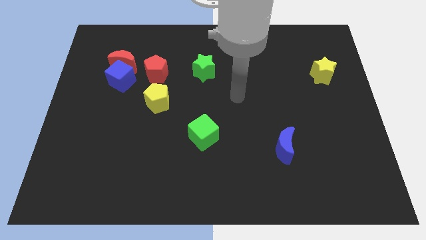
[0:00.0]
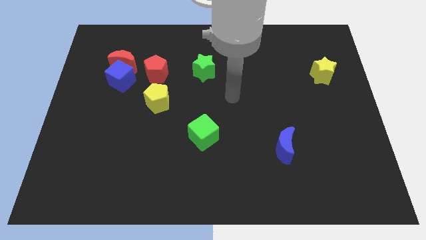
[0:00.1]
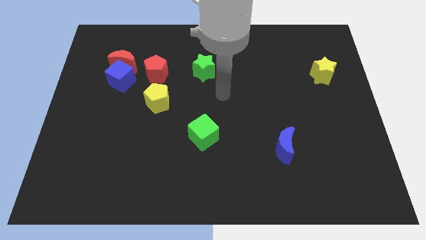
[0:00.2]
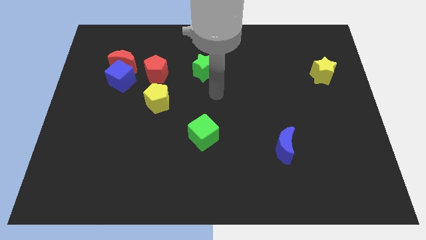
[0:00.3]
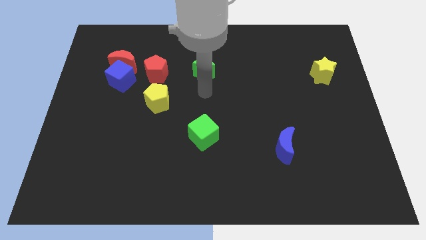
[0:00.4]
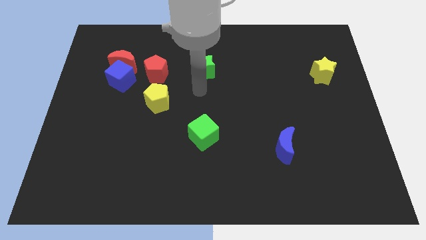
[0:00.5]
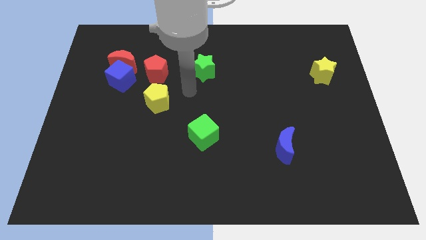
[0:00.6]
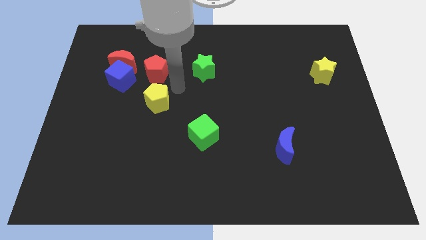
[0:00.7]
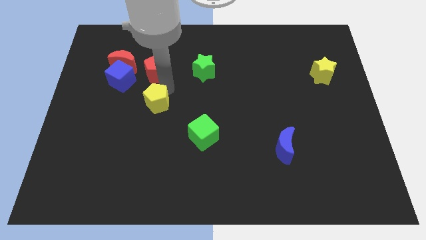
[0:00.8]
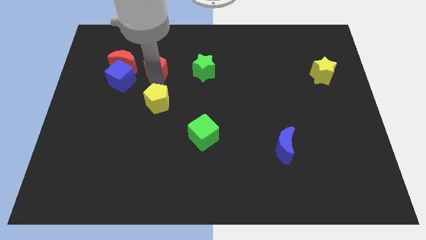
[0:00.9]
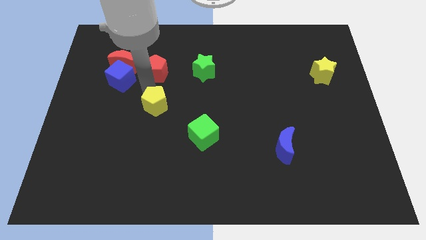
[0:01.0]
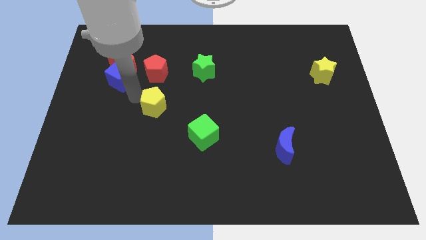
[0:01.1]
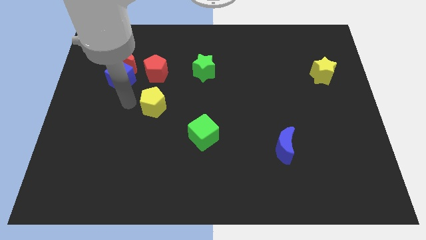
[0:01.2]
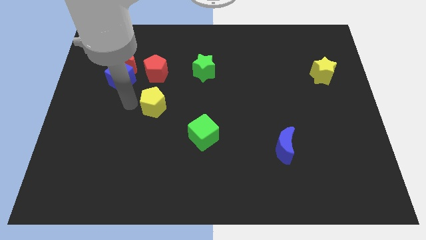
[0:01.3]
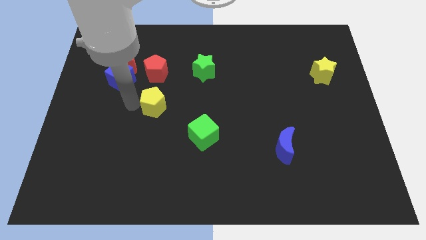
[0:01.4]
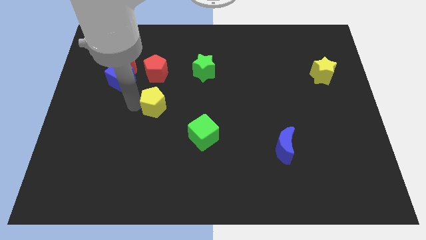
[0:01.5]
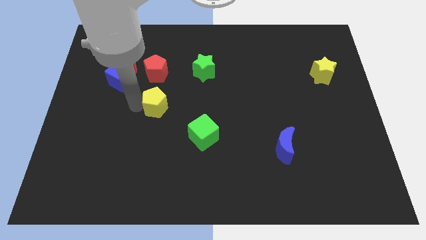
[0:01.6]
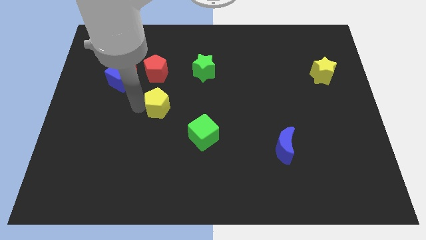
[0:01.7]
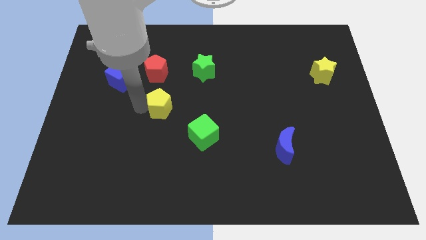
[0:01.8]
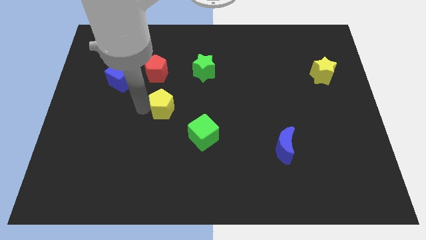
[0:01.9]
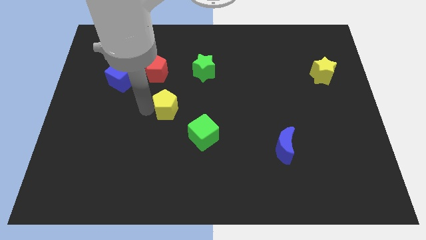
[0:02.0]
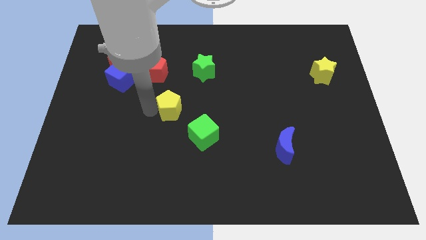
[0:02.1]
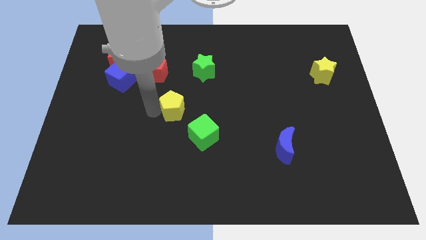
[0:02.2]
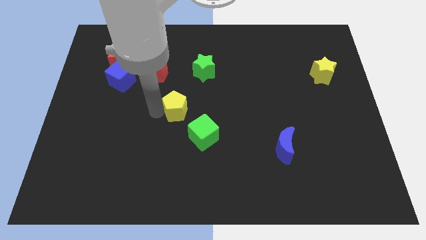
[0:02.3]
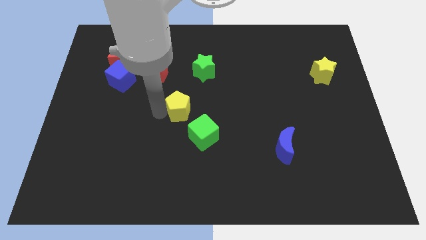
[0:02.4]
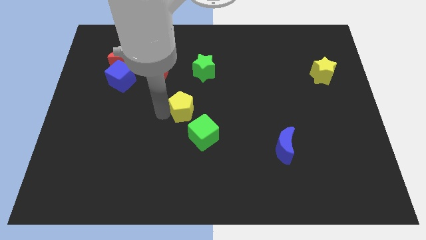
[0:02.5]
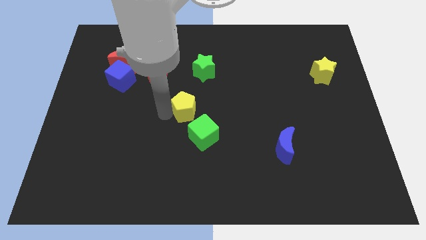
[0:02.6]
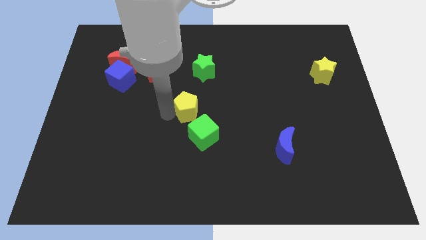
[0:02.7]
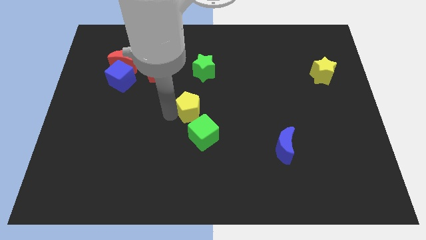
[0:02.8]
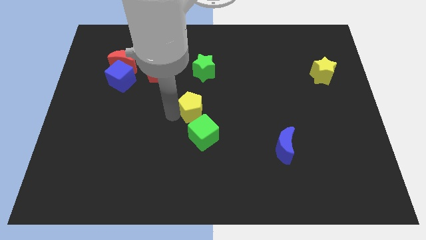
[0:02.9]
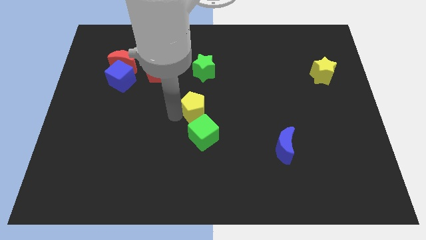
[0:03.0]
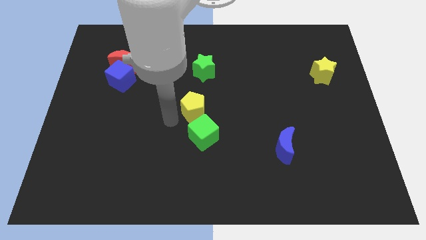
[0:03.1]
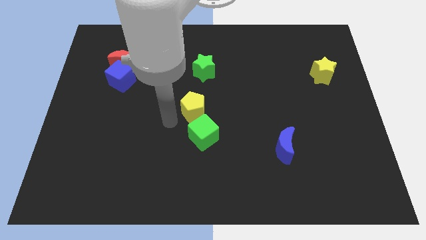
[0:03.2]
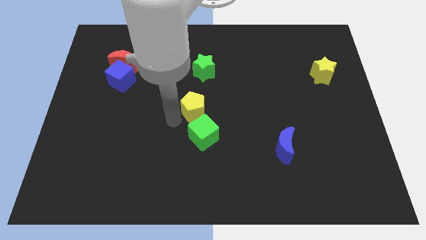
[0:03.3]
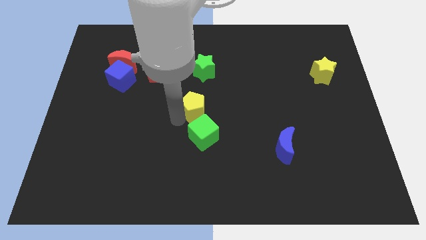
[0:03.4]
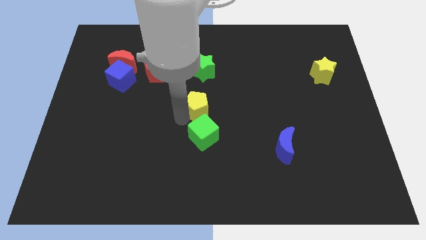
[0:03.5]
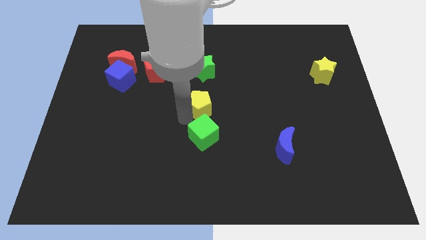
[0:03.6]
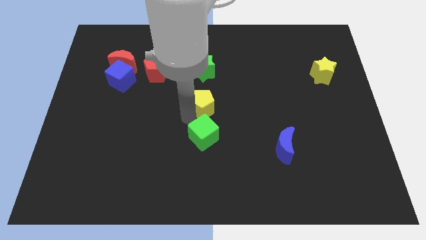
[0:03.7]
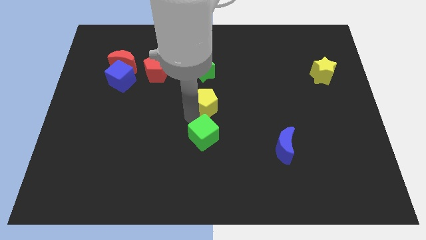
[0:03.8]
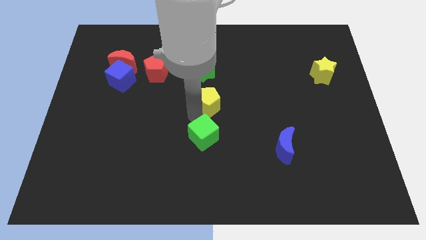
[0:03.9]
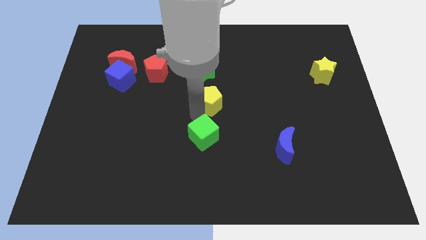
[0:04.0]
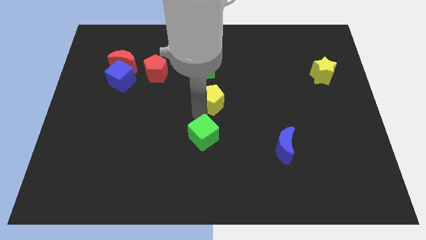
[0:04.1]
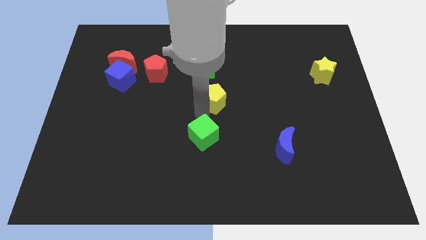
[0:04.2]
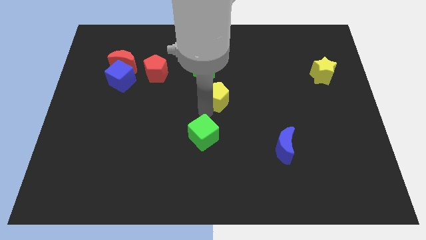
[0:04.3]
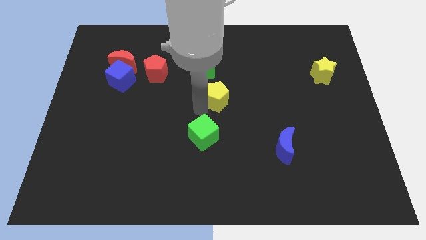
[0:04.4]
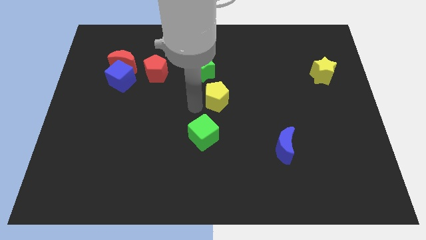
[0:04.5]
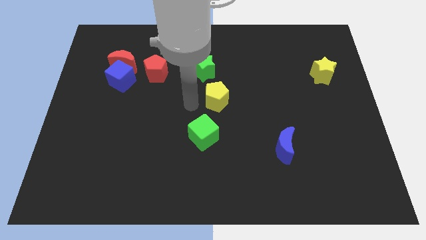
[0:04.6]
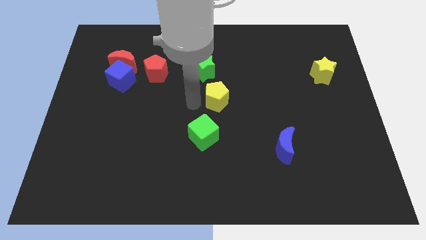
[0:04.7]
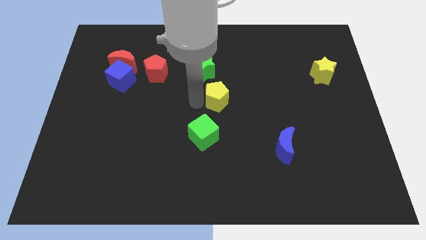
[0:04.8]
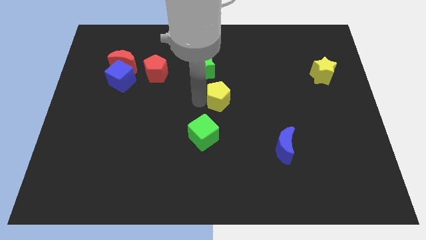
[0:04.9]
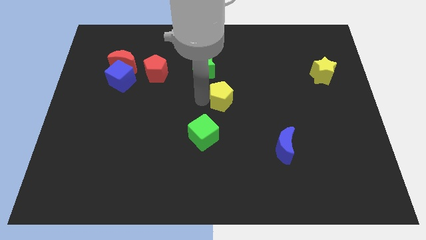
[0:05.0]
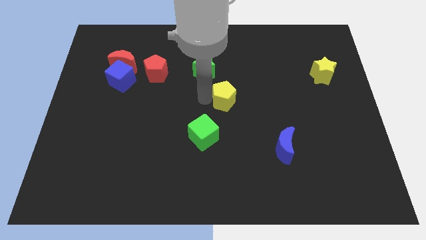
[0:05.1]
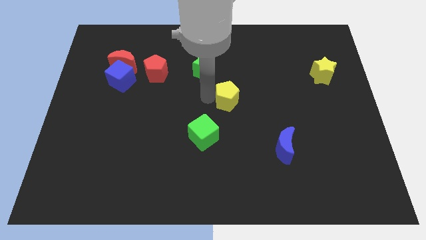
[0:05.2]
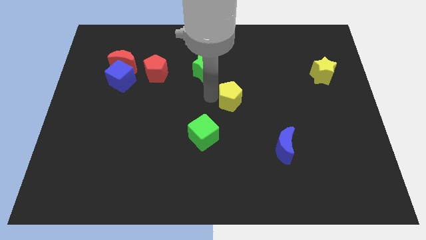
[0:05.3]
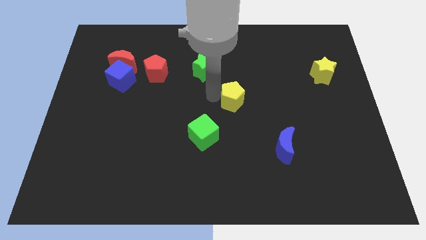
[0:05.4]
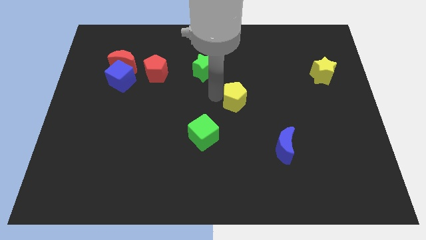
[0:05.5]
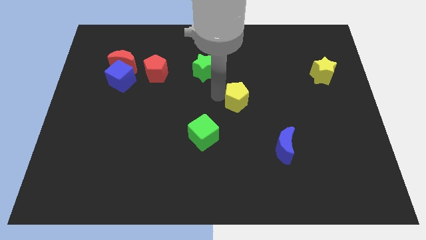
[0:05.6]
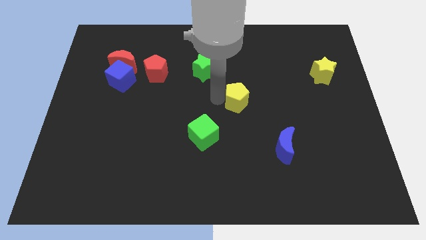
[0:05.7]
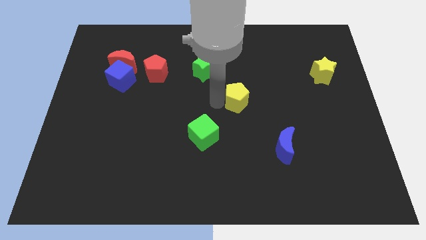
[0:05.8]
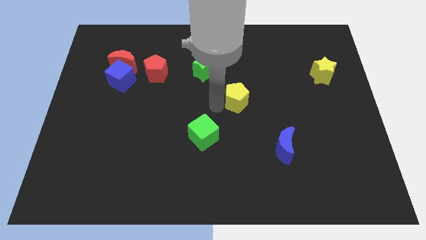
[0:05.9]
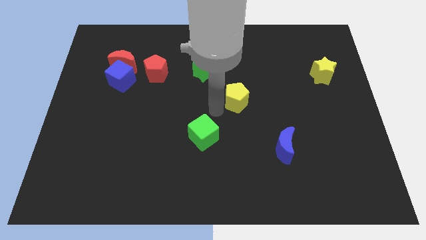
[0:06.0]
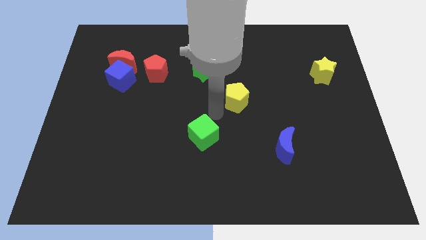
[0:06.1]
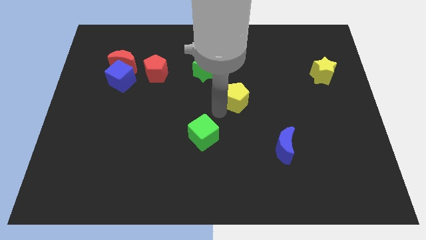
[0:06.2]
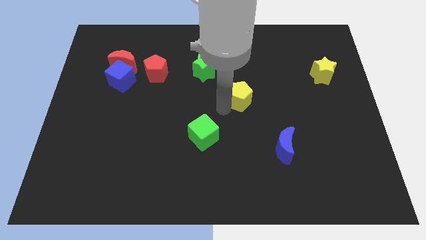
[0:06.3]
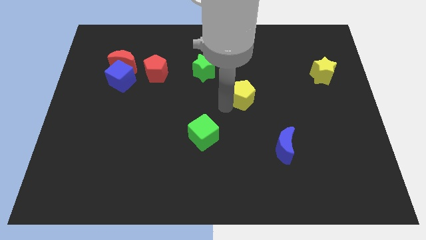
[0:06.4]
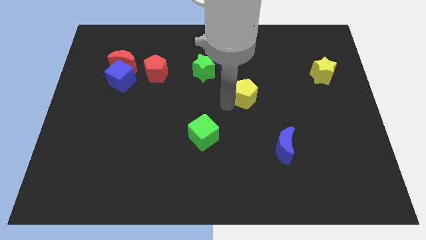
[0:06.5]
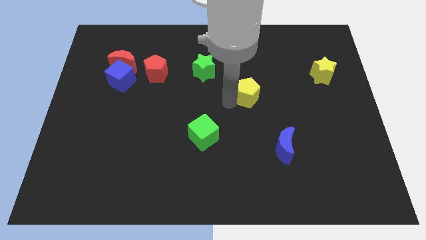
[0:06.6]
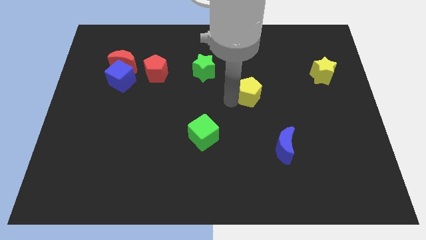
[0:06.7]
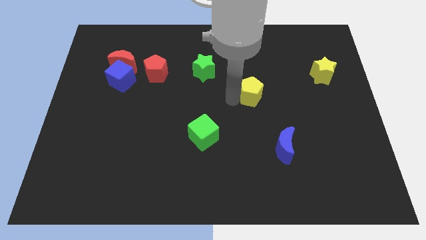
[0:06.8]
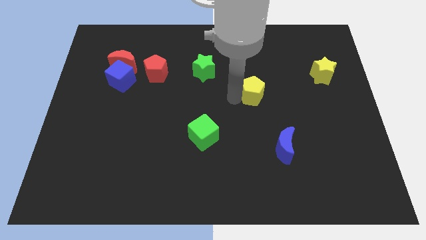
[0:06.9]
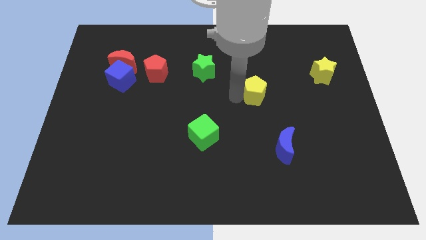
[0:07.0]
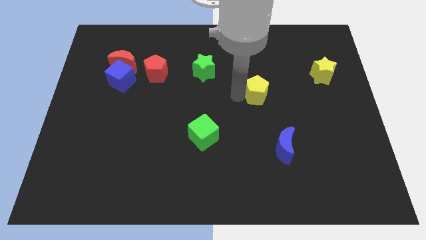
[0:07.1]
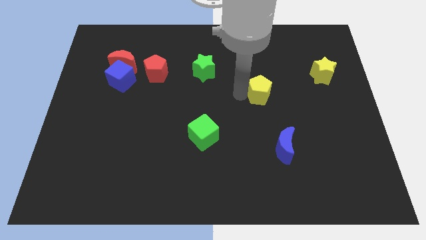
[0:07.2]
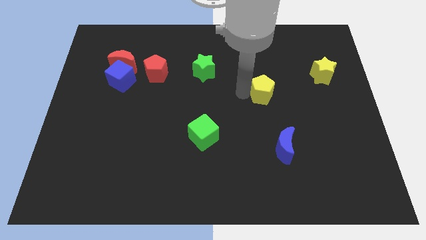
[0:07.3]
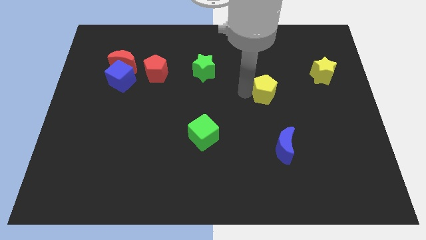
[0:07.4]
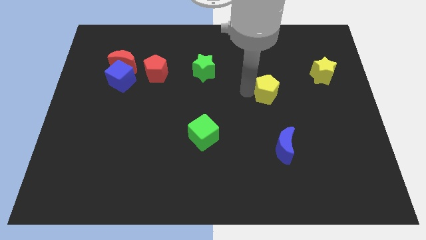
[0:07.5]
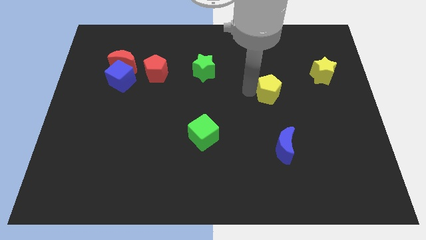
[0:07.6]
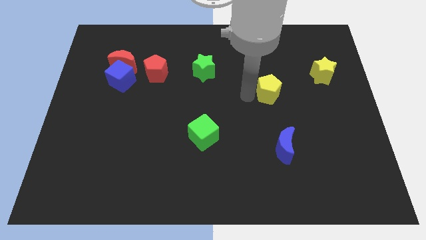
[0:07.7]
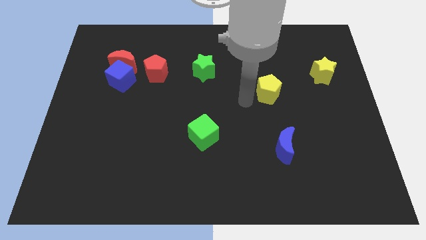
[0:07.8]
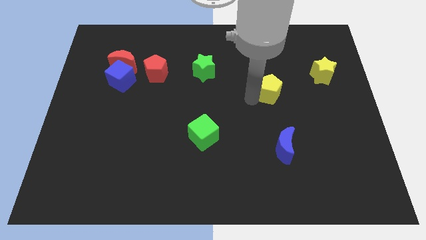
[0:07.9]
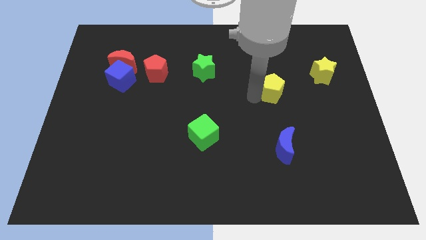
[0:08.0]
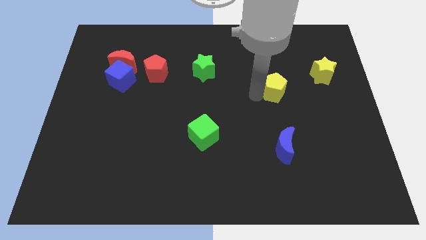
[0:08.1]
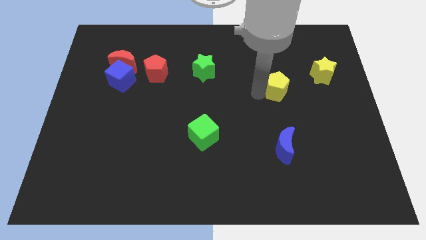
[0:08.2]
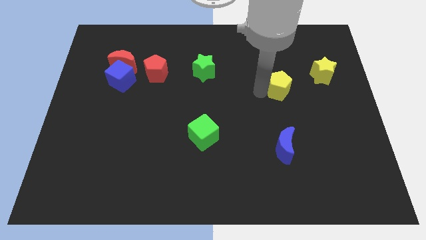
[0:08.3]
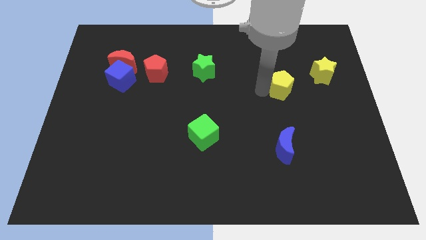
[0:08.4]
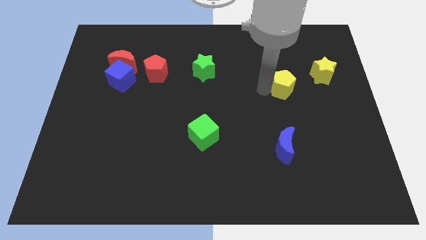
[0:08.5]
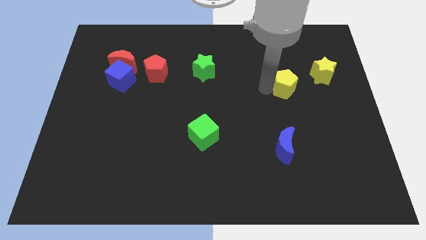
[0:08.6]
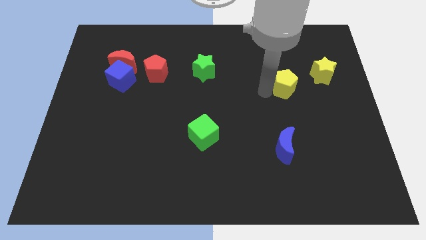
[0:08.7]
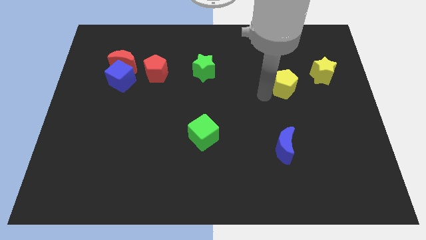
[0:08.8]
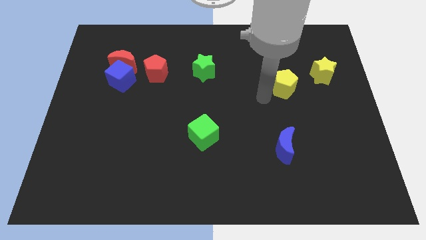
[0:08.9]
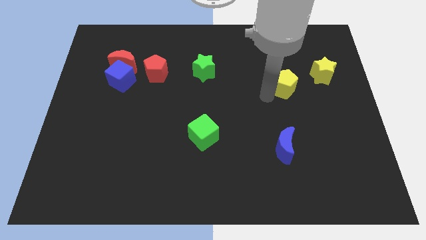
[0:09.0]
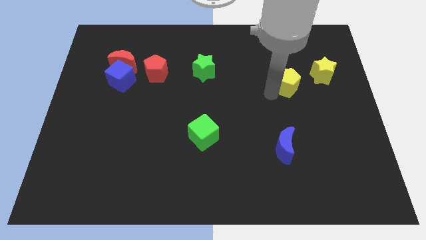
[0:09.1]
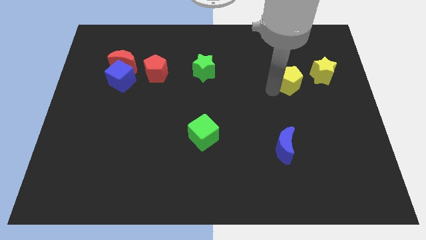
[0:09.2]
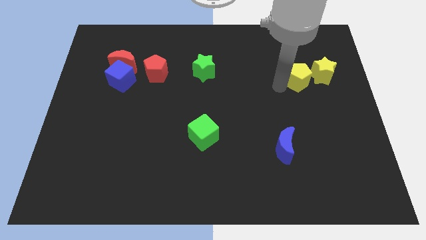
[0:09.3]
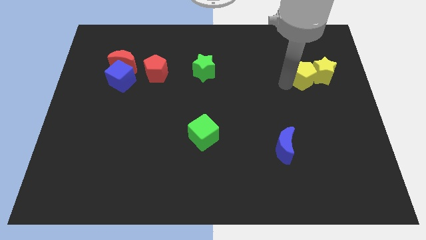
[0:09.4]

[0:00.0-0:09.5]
move the yellow pentagon next to the yellow star
